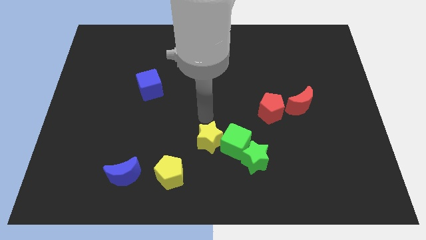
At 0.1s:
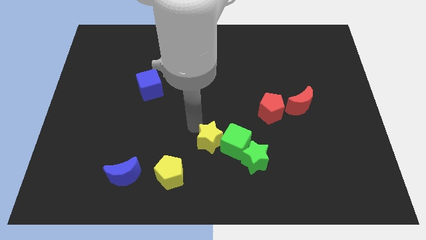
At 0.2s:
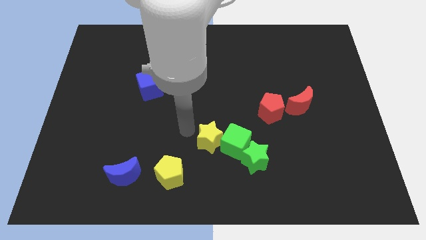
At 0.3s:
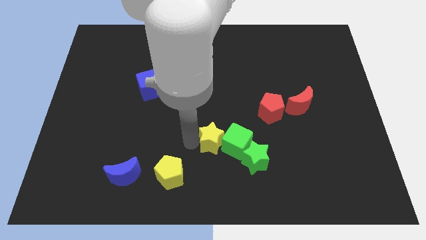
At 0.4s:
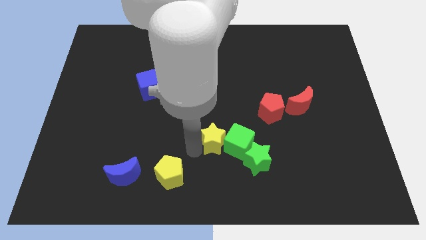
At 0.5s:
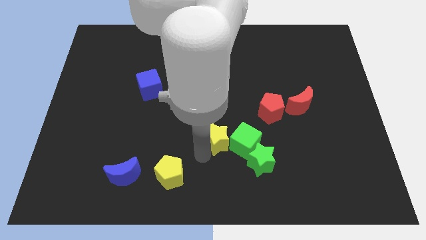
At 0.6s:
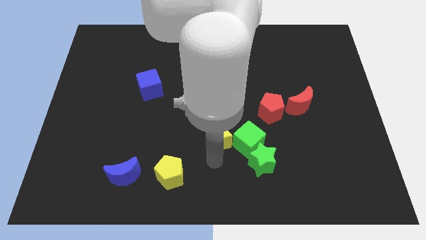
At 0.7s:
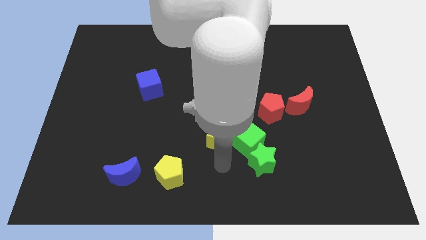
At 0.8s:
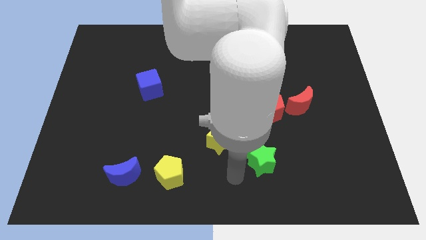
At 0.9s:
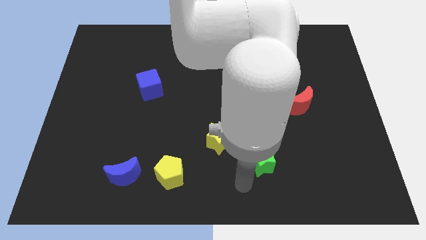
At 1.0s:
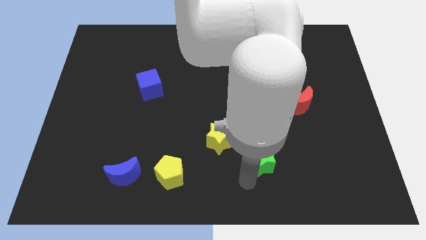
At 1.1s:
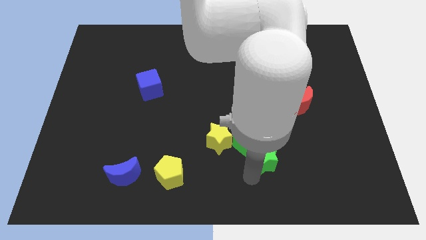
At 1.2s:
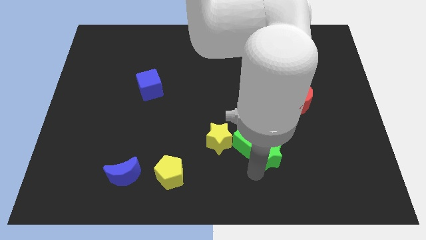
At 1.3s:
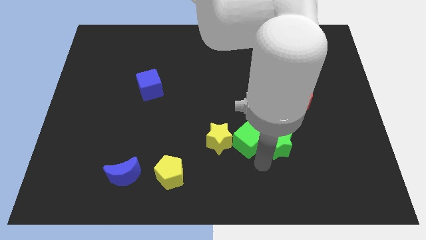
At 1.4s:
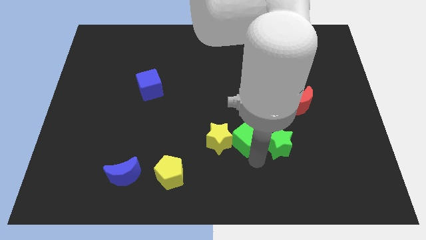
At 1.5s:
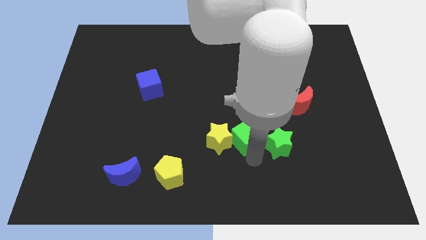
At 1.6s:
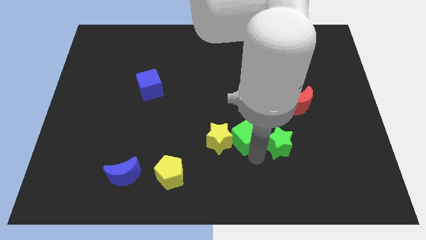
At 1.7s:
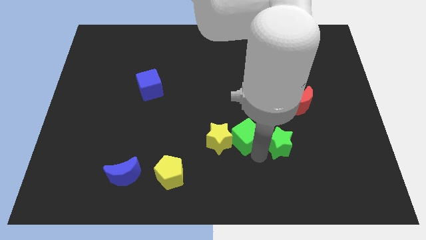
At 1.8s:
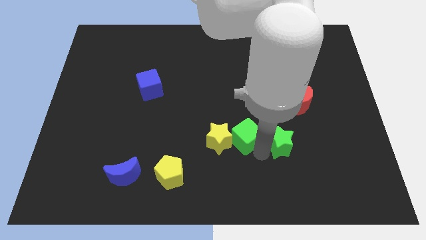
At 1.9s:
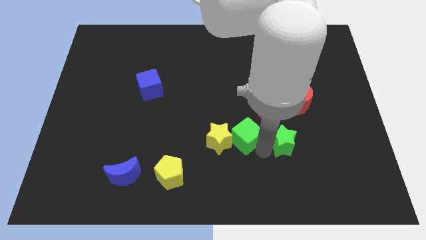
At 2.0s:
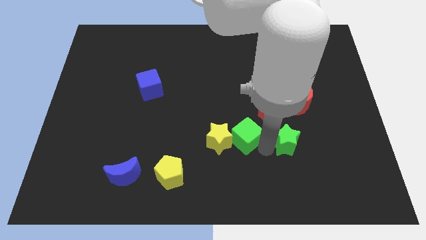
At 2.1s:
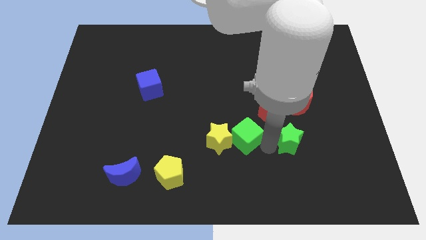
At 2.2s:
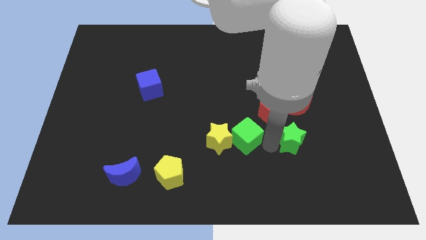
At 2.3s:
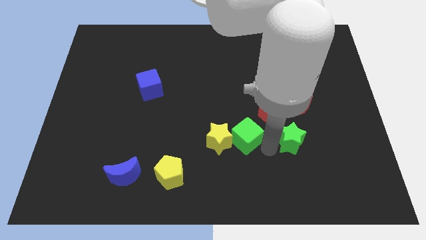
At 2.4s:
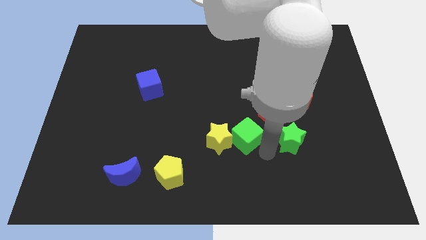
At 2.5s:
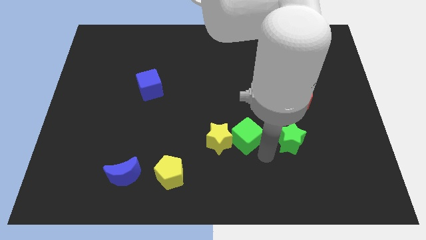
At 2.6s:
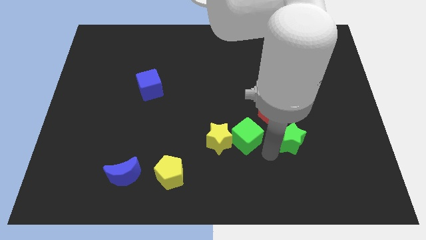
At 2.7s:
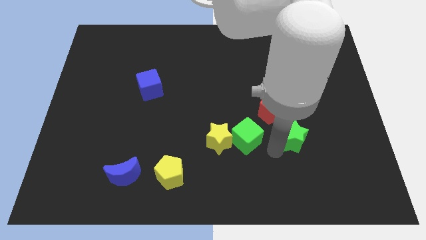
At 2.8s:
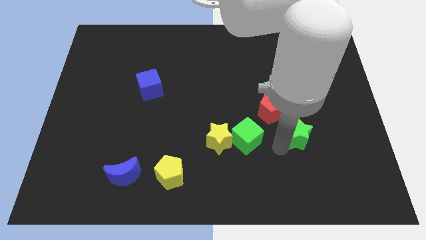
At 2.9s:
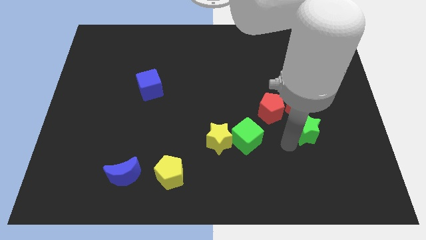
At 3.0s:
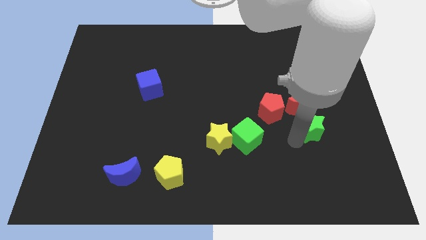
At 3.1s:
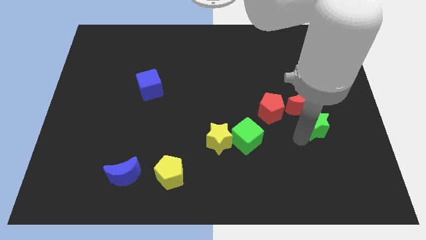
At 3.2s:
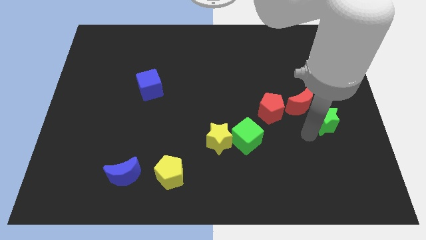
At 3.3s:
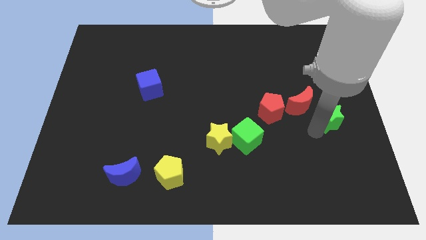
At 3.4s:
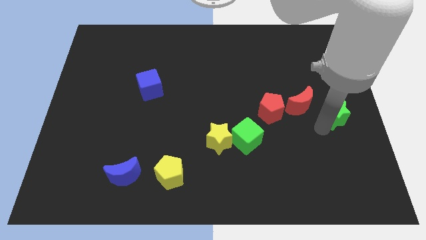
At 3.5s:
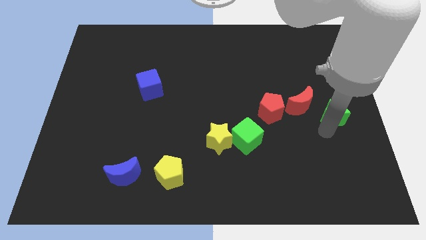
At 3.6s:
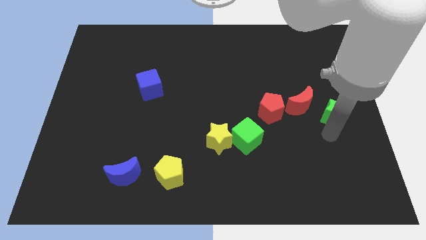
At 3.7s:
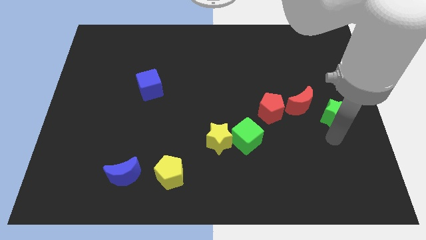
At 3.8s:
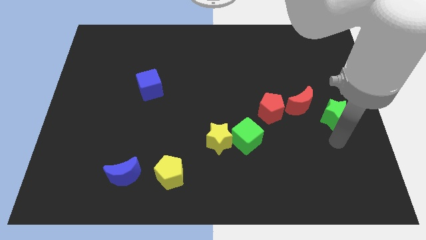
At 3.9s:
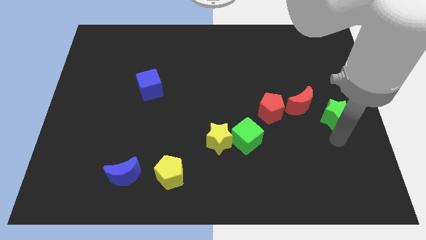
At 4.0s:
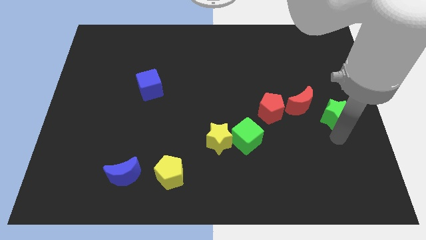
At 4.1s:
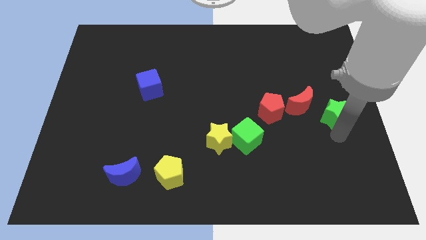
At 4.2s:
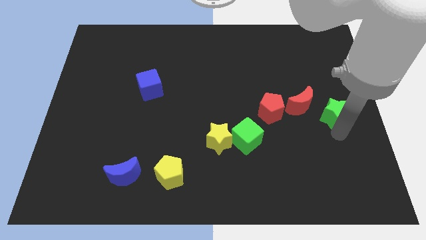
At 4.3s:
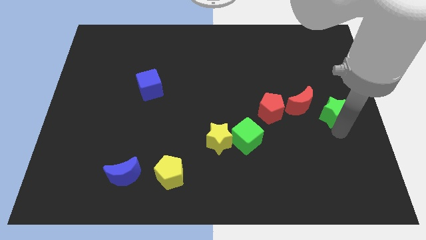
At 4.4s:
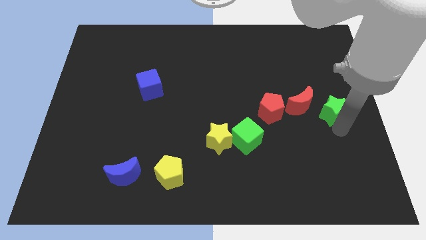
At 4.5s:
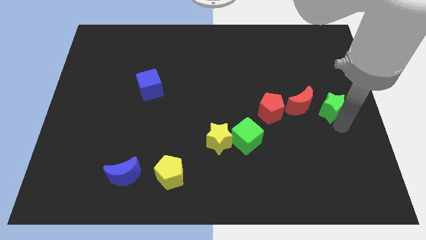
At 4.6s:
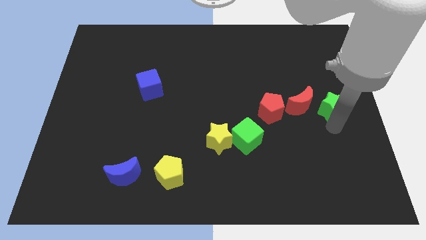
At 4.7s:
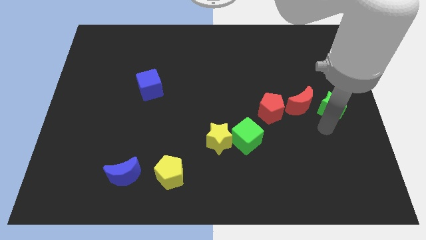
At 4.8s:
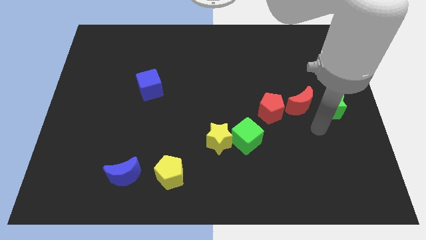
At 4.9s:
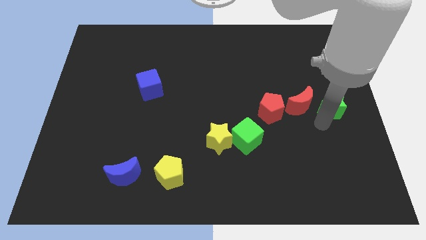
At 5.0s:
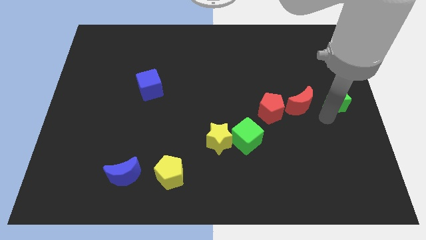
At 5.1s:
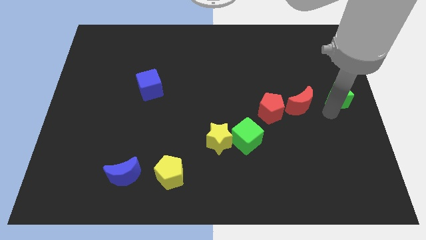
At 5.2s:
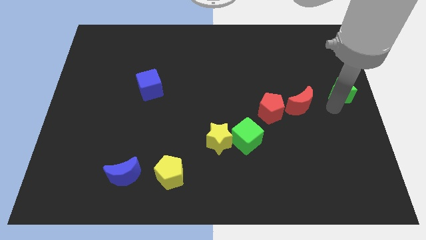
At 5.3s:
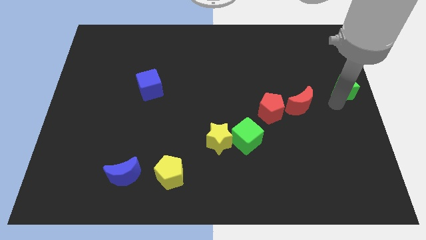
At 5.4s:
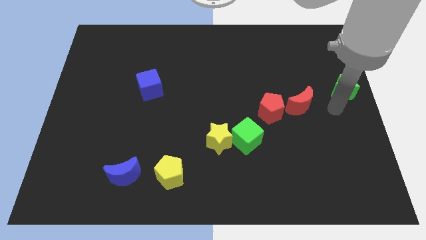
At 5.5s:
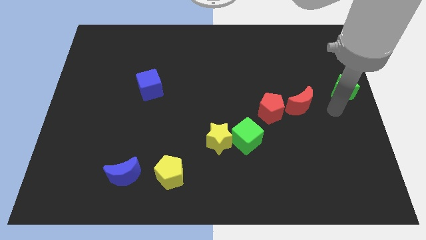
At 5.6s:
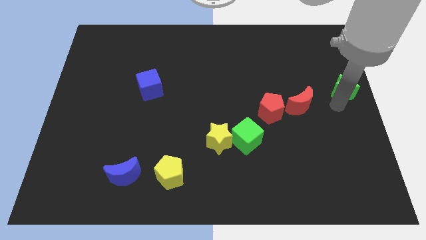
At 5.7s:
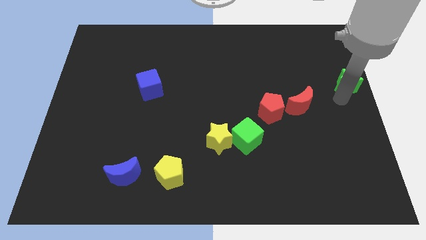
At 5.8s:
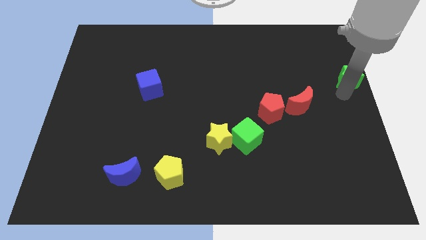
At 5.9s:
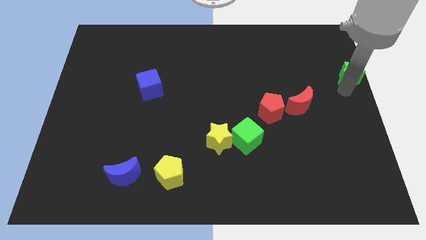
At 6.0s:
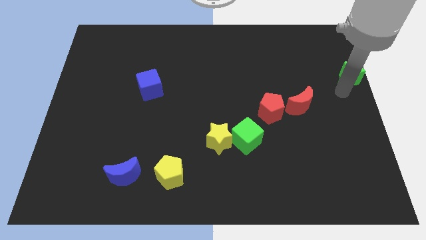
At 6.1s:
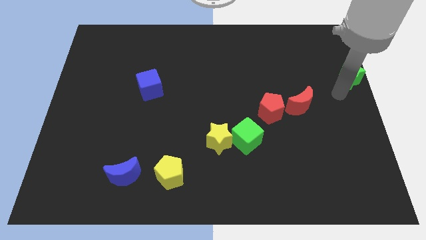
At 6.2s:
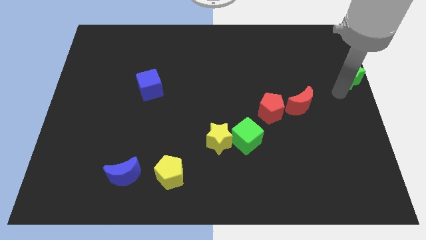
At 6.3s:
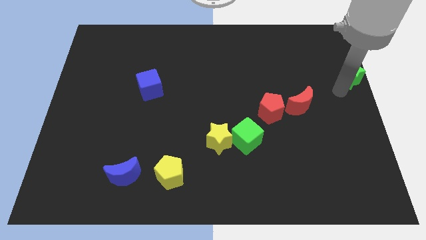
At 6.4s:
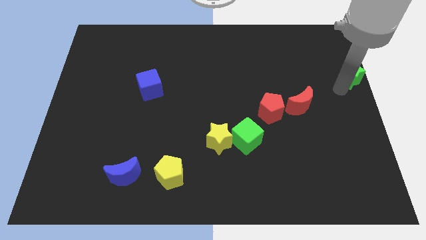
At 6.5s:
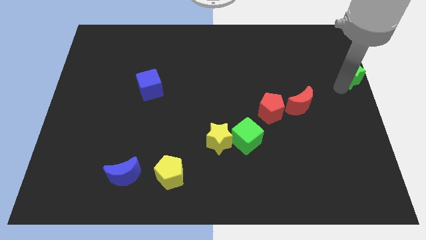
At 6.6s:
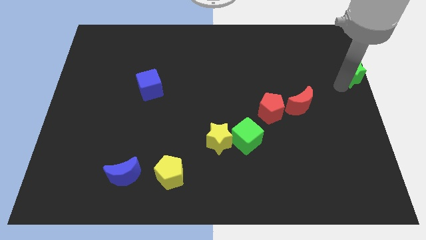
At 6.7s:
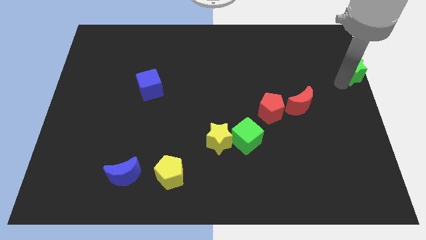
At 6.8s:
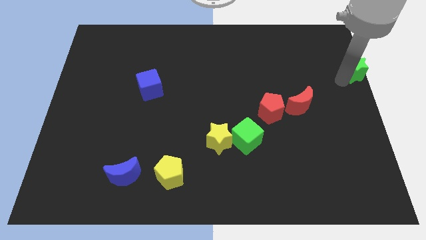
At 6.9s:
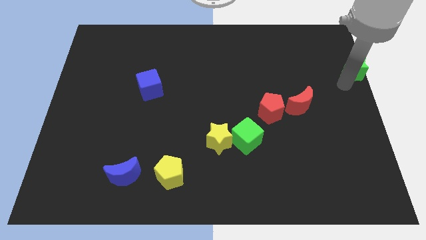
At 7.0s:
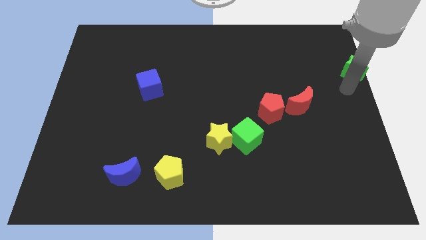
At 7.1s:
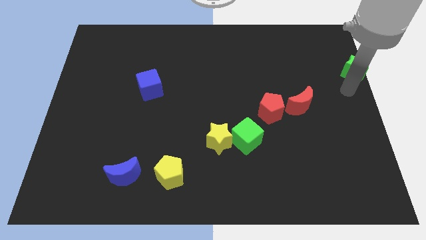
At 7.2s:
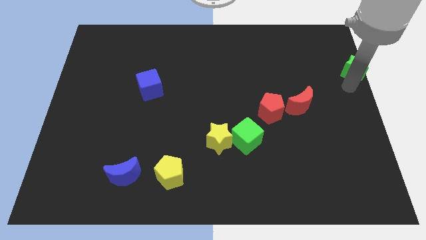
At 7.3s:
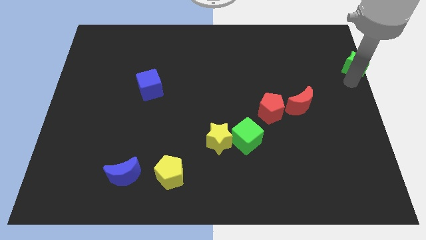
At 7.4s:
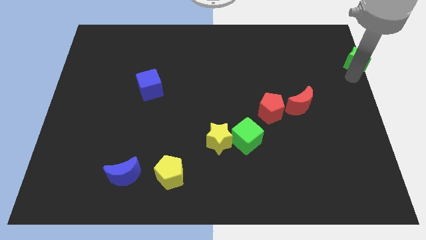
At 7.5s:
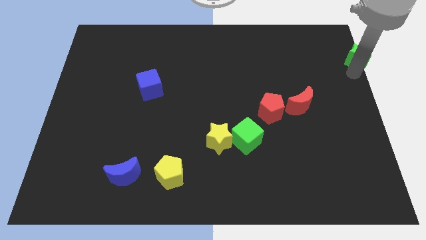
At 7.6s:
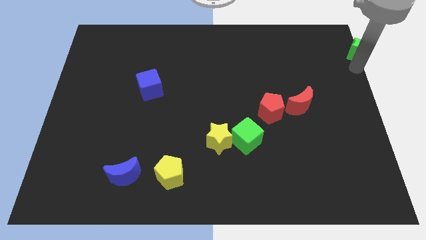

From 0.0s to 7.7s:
slide the green star to the top right of the board
